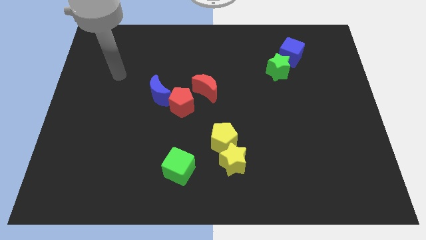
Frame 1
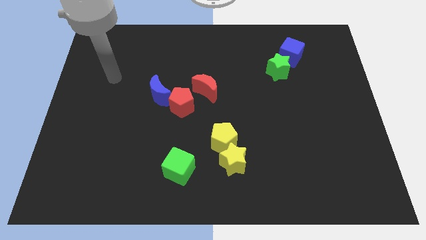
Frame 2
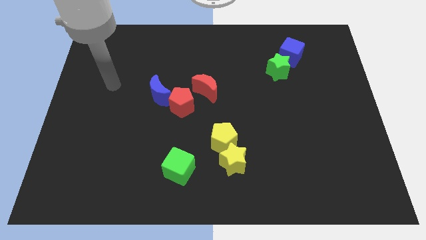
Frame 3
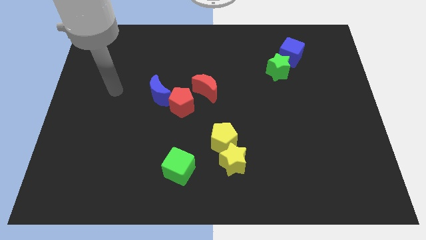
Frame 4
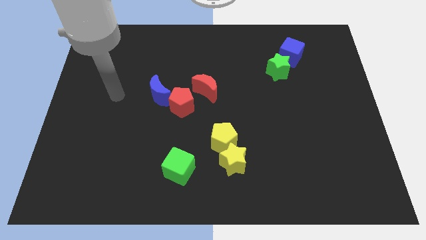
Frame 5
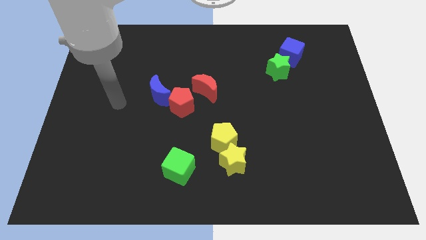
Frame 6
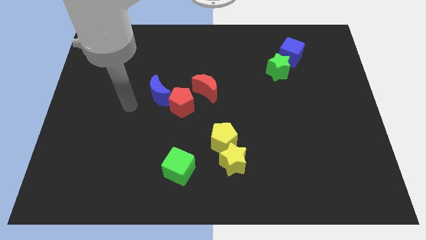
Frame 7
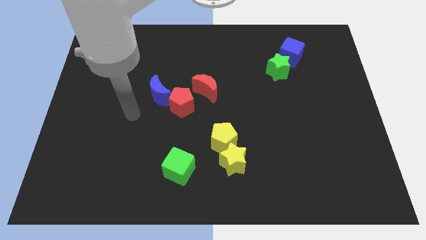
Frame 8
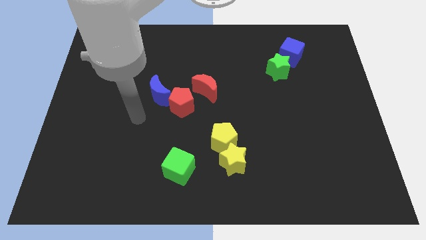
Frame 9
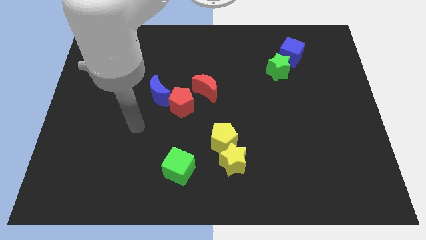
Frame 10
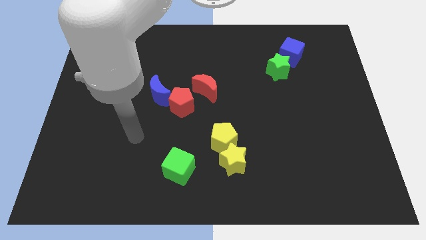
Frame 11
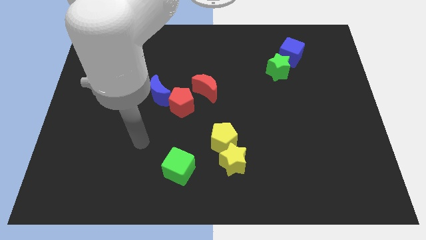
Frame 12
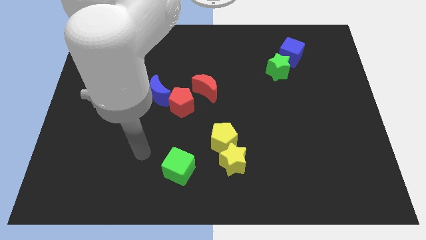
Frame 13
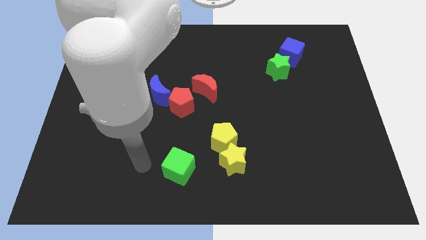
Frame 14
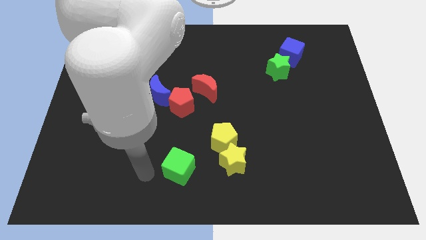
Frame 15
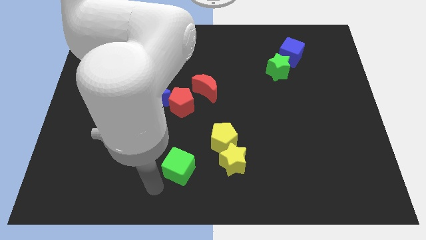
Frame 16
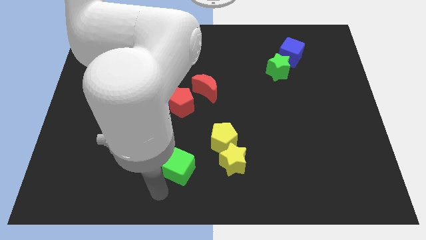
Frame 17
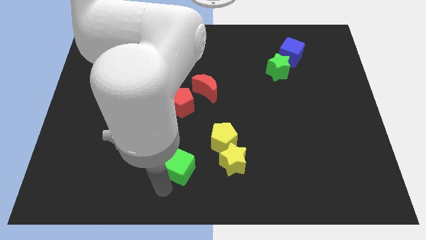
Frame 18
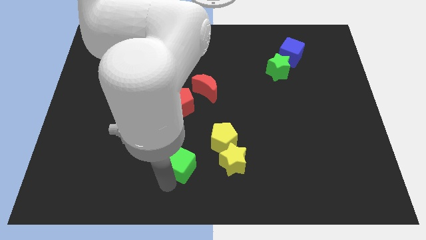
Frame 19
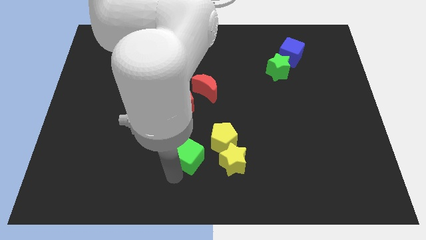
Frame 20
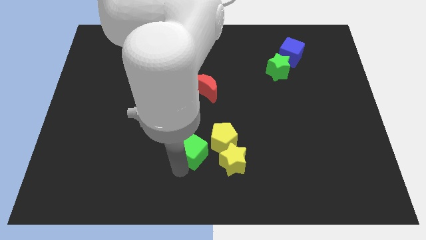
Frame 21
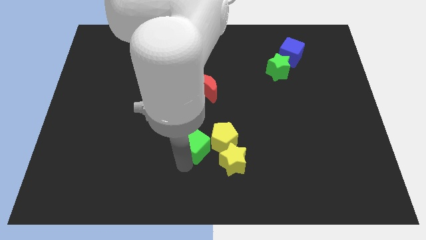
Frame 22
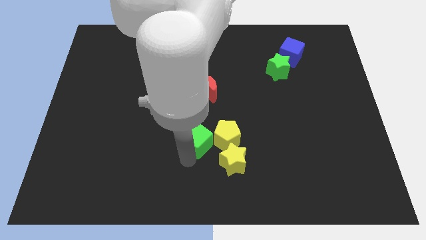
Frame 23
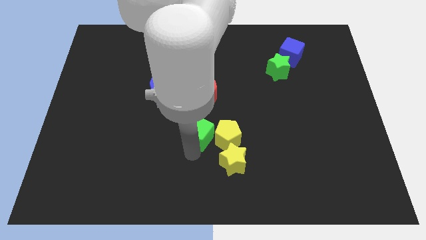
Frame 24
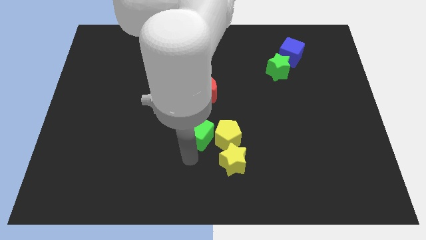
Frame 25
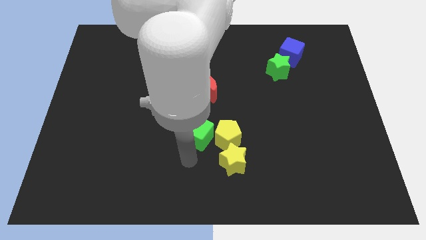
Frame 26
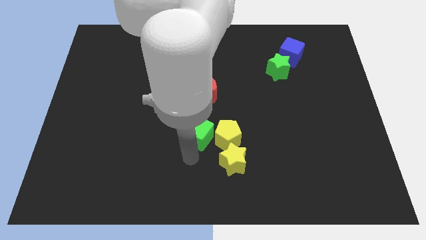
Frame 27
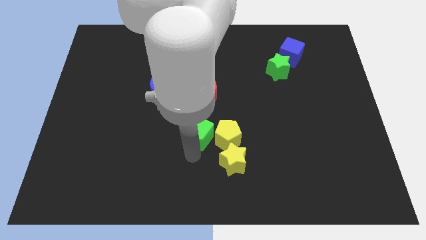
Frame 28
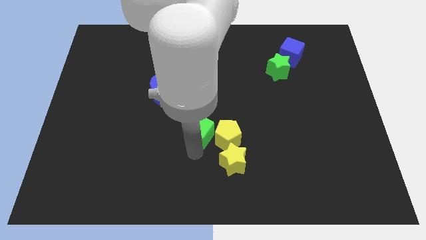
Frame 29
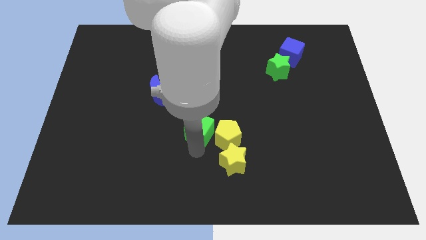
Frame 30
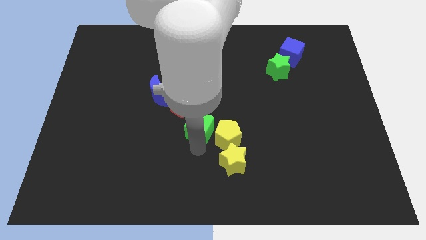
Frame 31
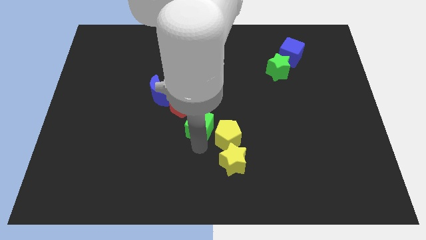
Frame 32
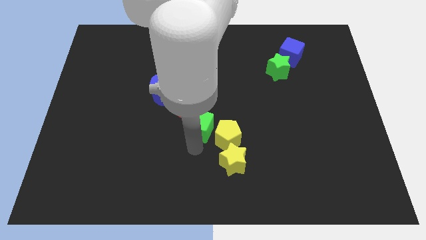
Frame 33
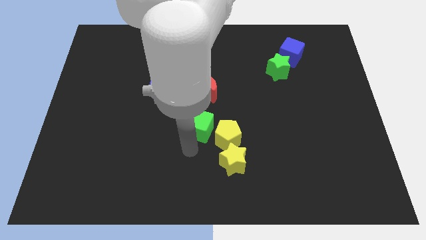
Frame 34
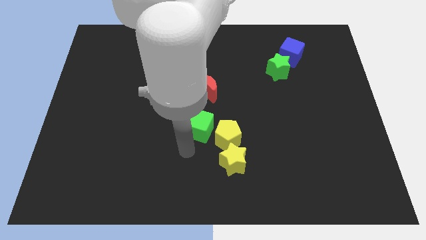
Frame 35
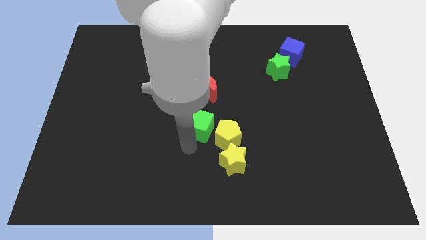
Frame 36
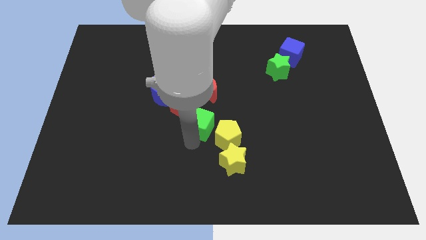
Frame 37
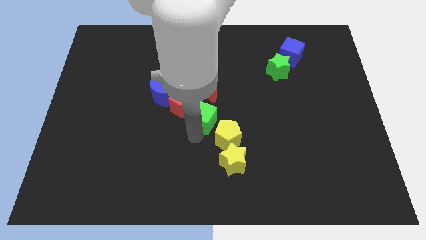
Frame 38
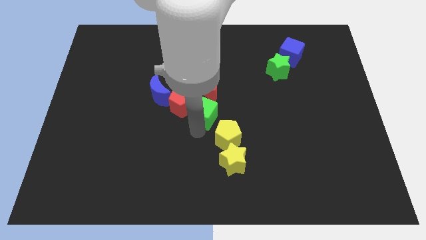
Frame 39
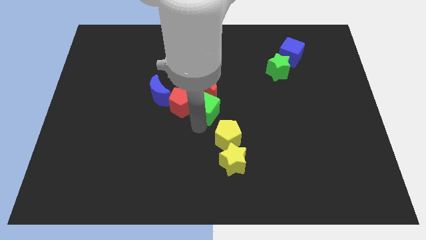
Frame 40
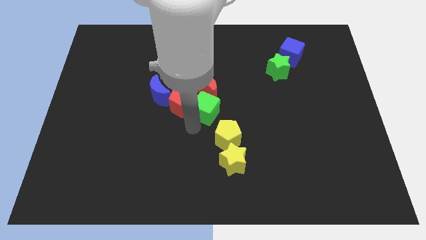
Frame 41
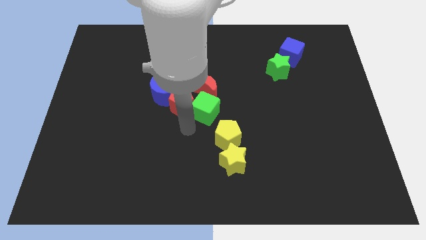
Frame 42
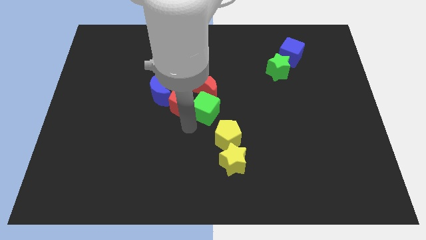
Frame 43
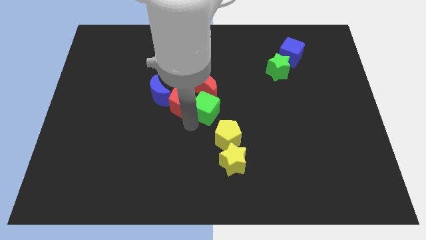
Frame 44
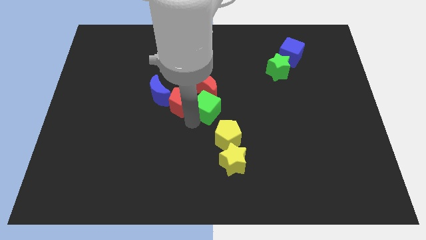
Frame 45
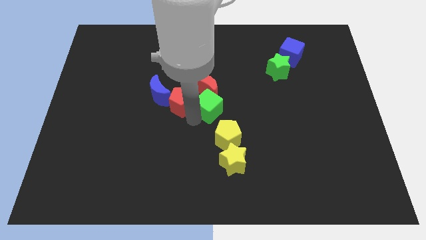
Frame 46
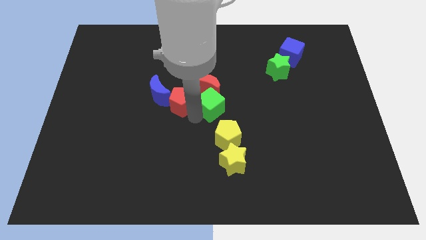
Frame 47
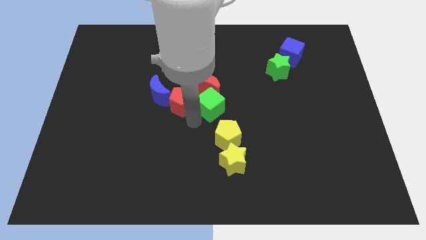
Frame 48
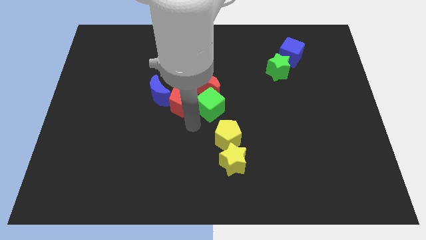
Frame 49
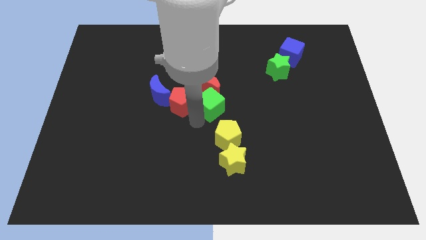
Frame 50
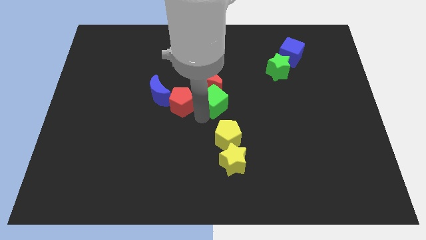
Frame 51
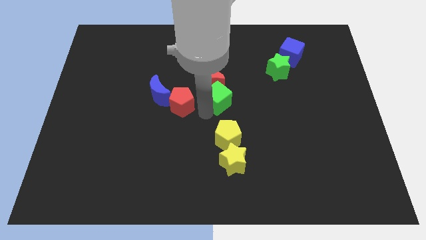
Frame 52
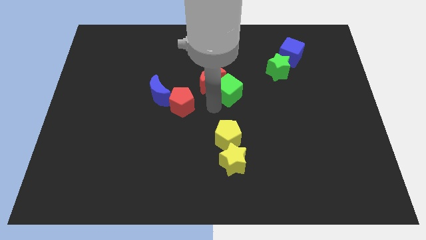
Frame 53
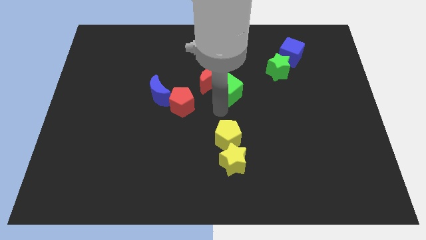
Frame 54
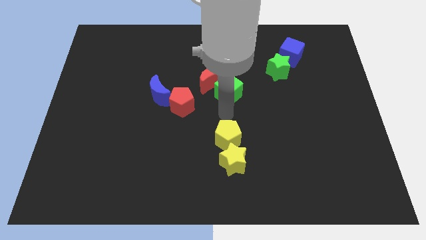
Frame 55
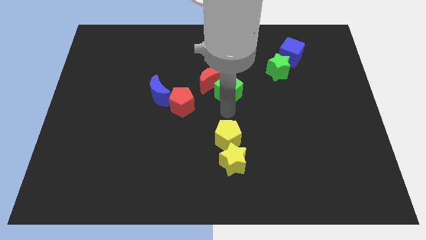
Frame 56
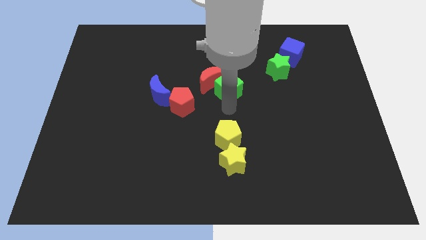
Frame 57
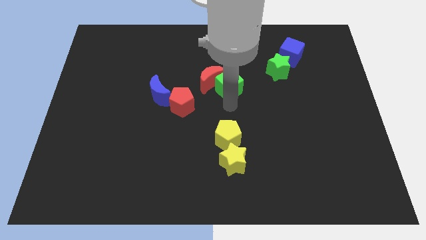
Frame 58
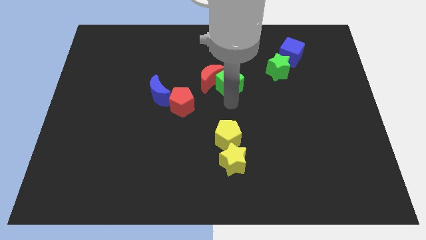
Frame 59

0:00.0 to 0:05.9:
slide the green cube diagonally up and to the right of the red moon

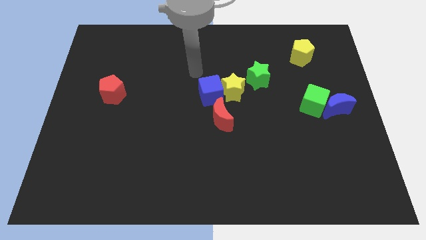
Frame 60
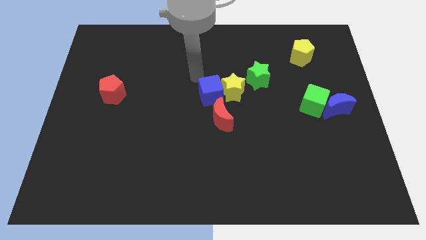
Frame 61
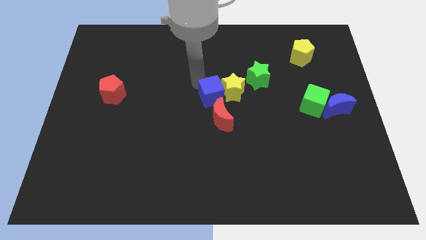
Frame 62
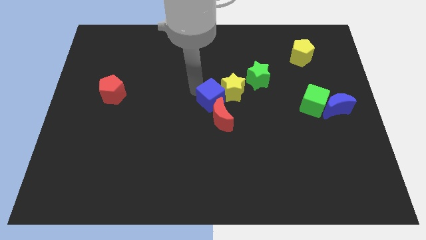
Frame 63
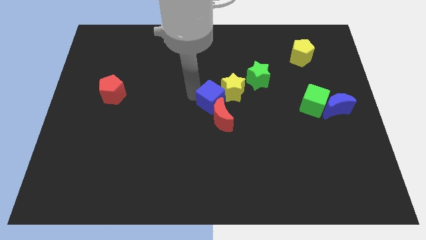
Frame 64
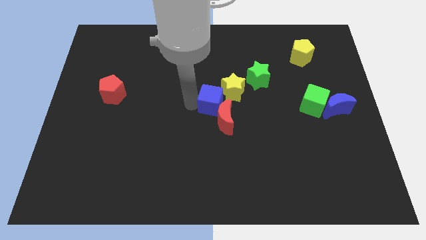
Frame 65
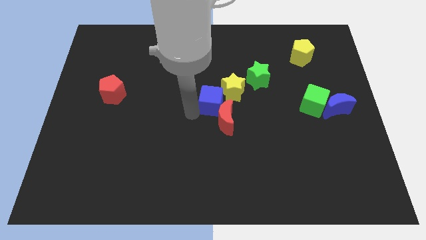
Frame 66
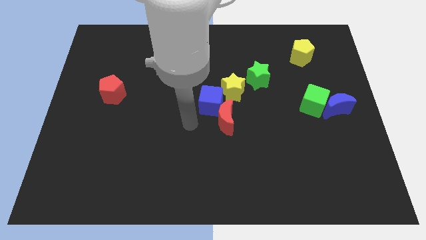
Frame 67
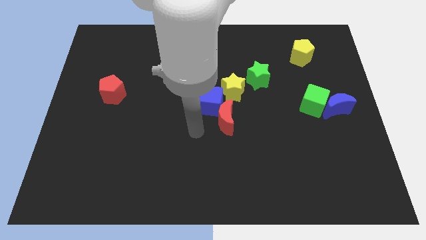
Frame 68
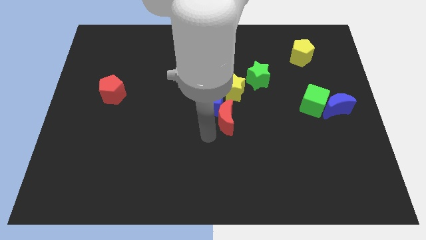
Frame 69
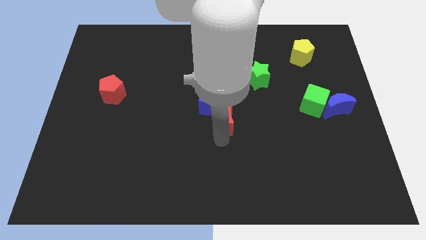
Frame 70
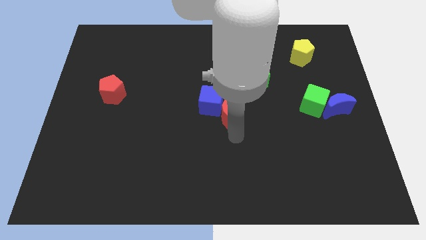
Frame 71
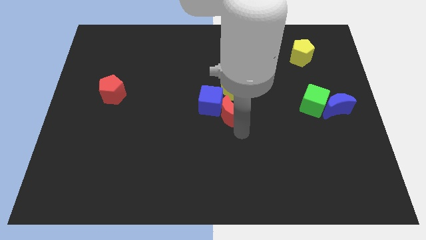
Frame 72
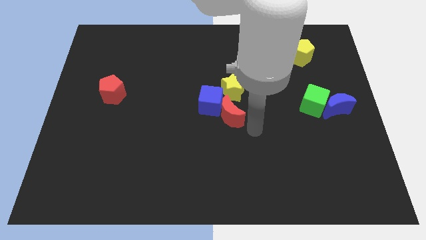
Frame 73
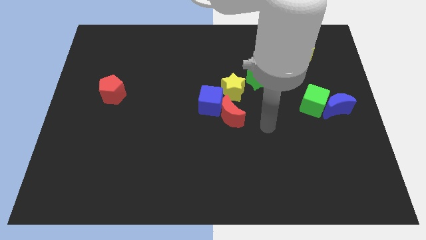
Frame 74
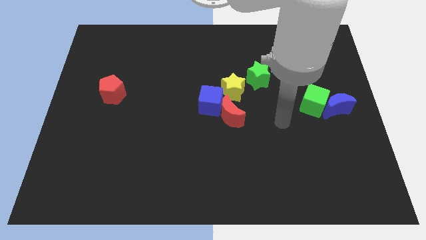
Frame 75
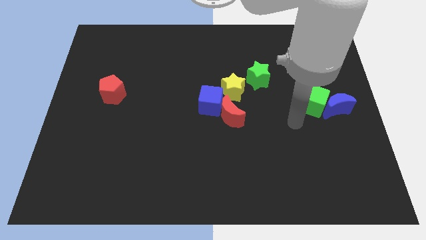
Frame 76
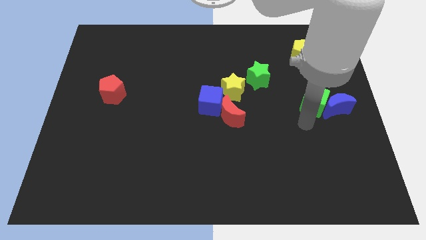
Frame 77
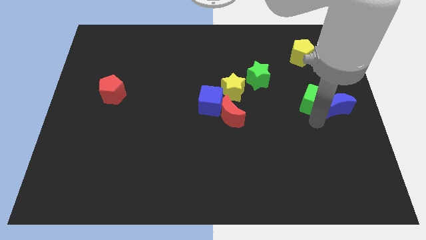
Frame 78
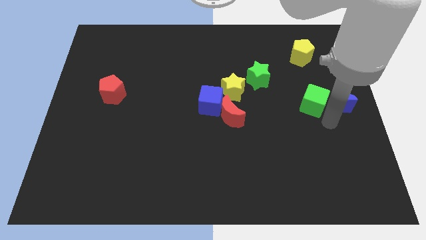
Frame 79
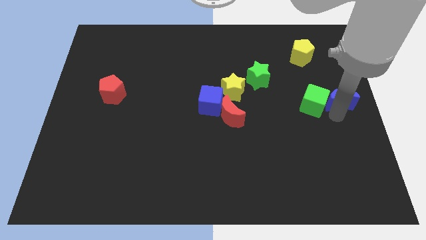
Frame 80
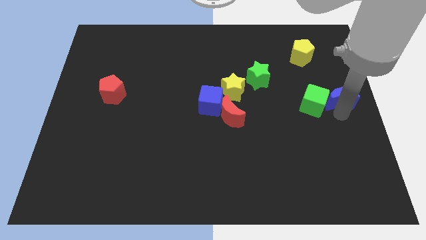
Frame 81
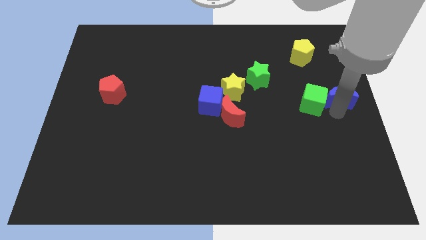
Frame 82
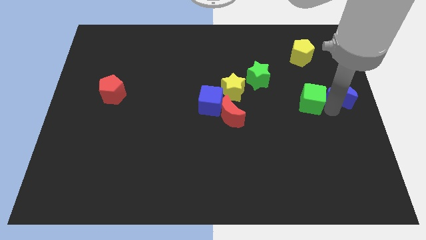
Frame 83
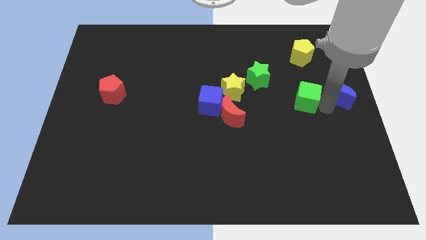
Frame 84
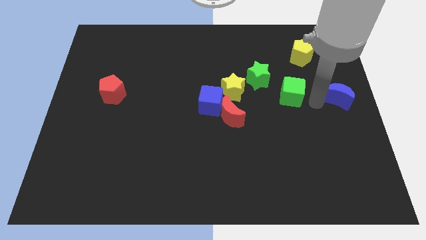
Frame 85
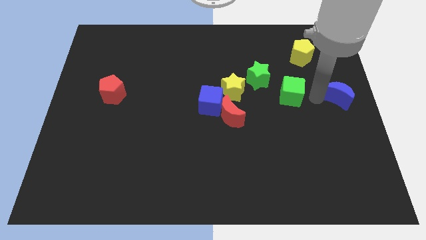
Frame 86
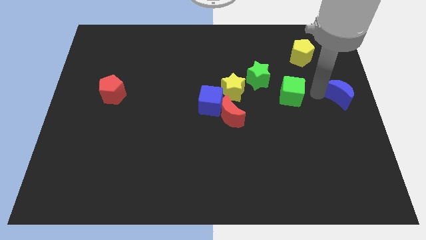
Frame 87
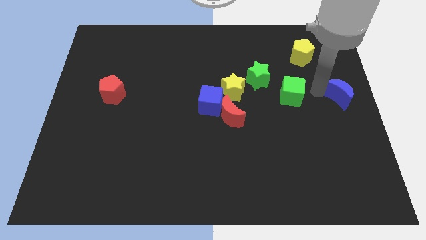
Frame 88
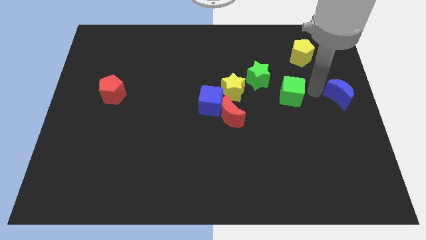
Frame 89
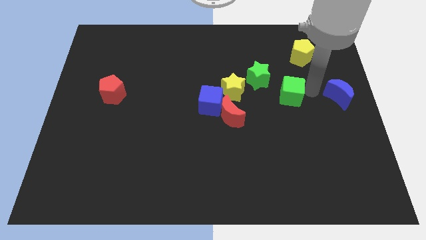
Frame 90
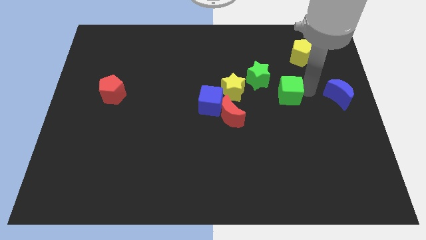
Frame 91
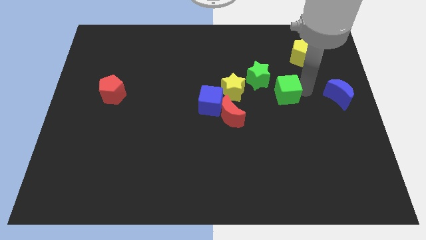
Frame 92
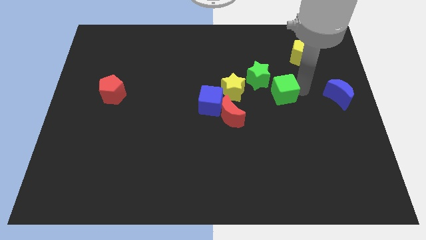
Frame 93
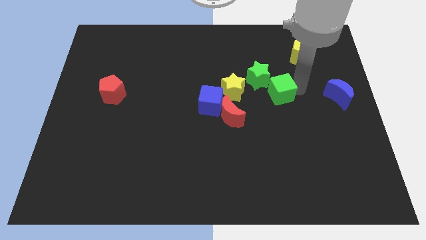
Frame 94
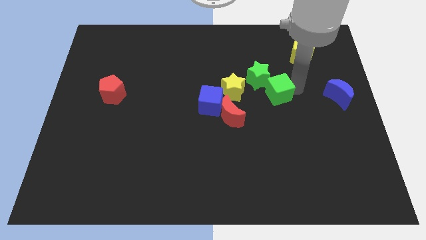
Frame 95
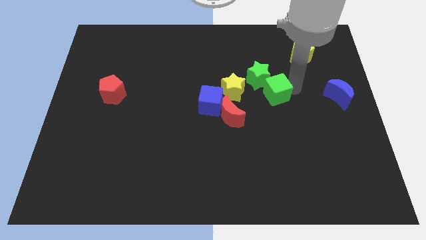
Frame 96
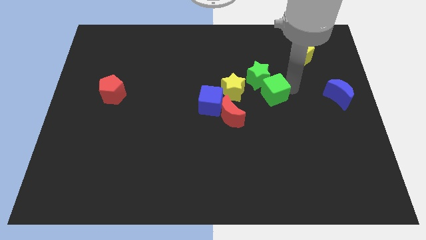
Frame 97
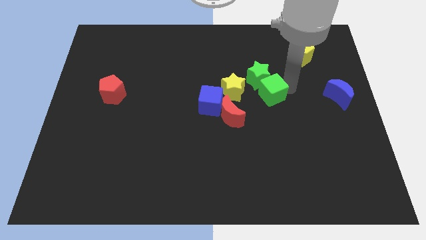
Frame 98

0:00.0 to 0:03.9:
move the green cube to the top right of the red moon
